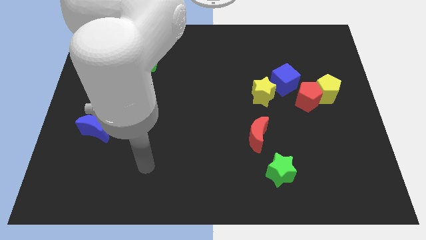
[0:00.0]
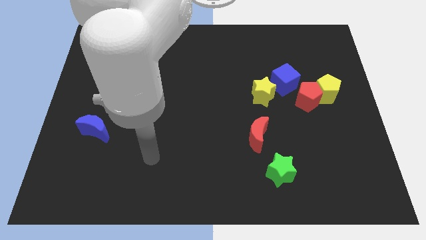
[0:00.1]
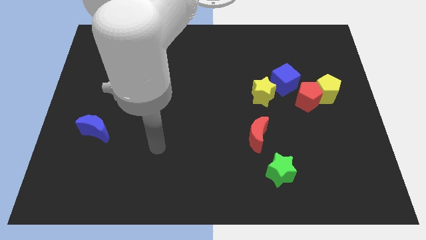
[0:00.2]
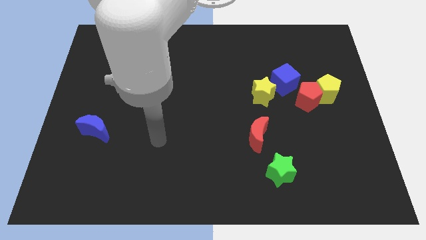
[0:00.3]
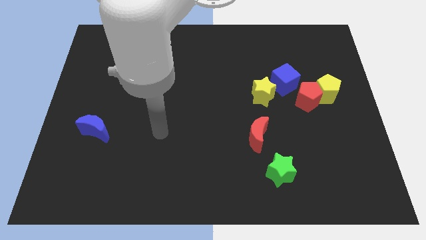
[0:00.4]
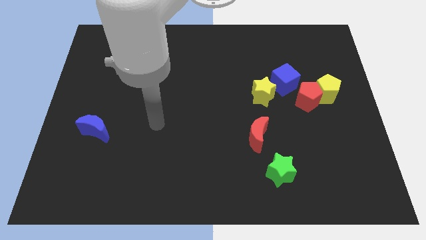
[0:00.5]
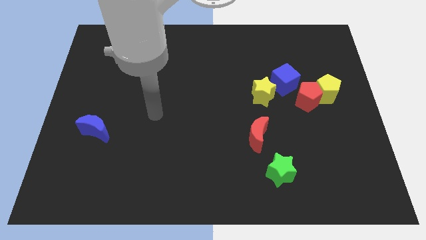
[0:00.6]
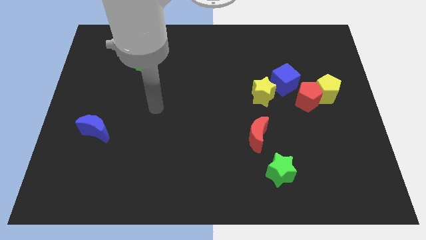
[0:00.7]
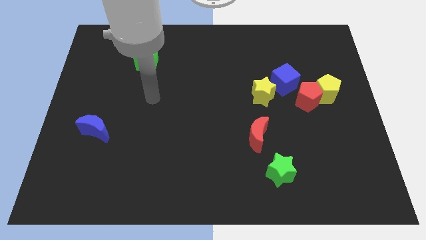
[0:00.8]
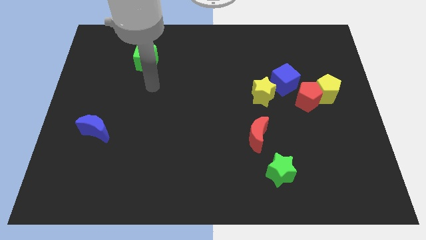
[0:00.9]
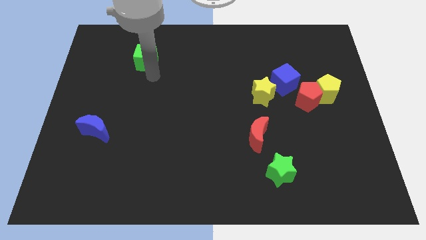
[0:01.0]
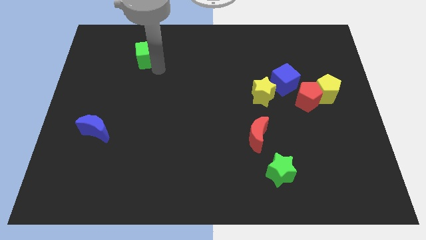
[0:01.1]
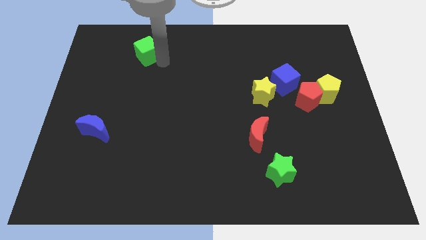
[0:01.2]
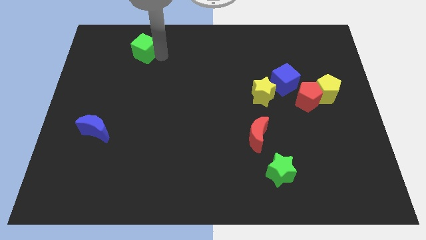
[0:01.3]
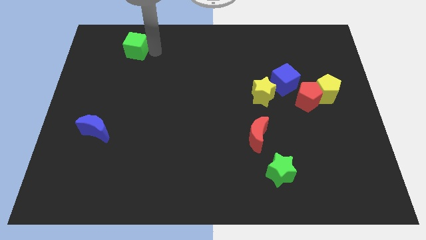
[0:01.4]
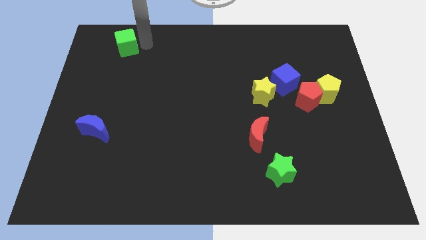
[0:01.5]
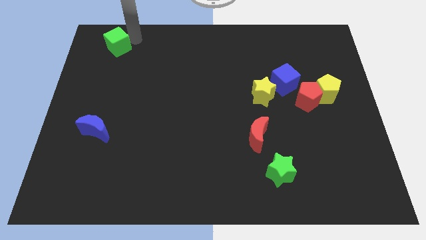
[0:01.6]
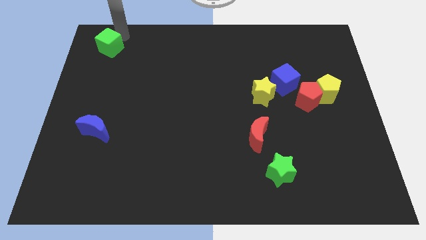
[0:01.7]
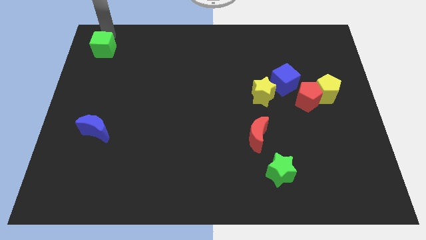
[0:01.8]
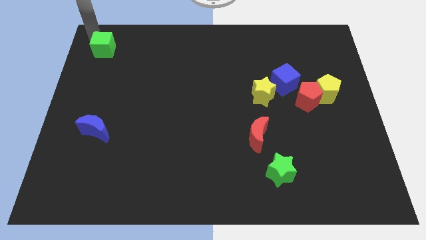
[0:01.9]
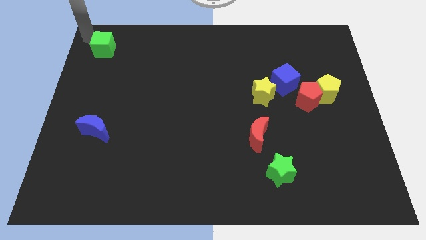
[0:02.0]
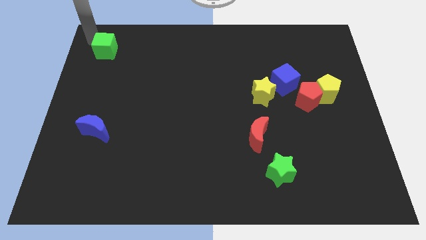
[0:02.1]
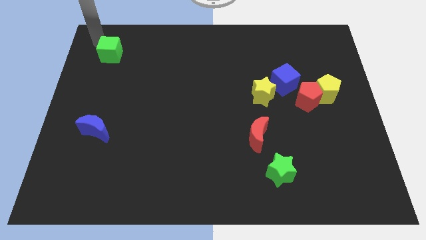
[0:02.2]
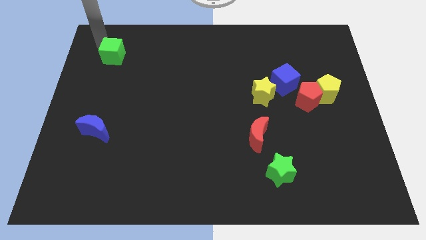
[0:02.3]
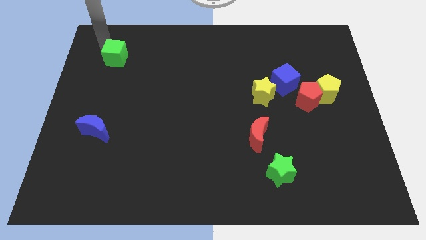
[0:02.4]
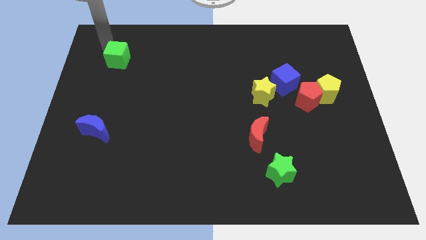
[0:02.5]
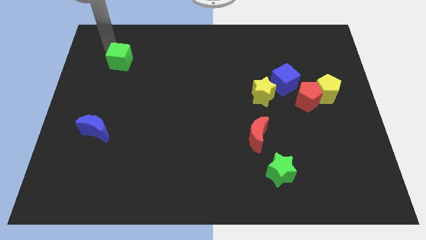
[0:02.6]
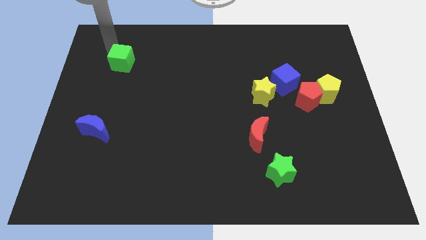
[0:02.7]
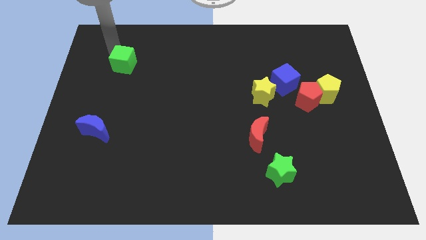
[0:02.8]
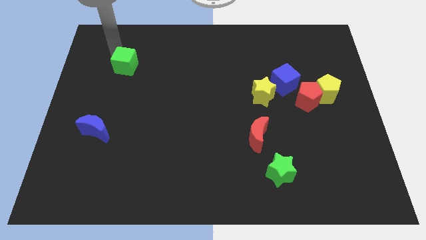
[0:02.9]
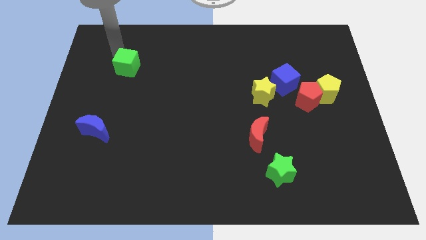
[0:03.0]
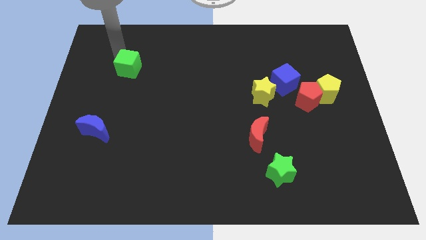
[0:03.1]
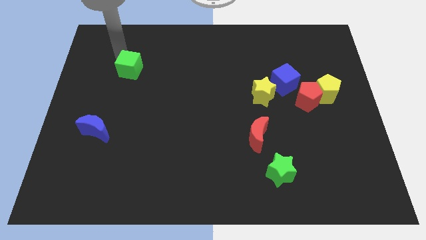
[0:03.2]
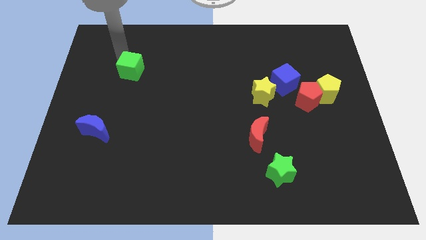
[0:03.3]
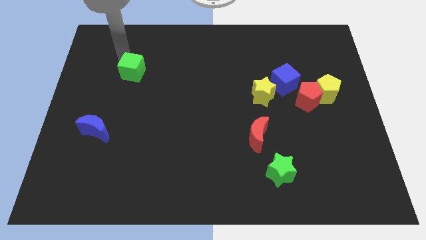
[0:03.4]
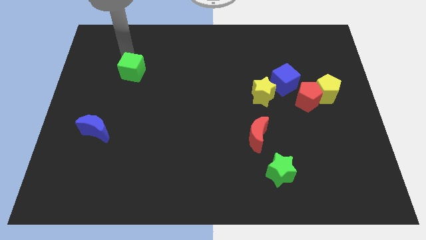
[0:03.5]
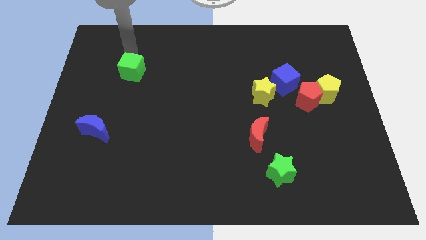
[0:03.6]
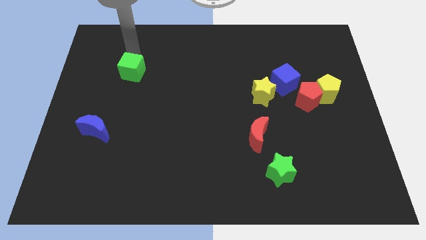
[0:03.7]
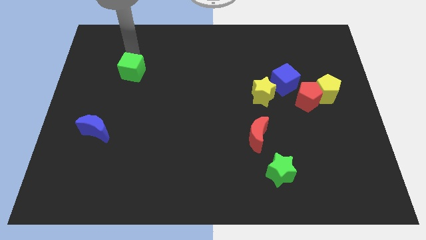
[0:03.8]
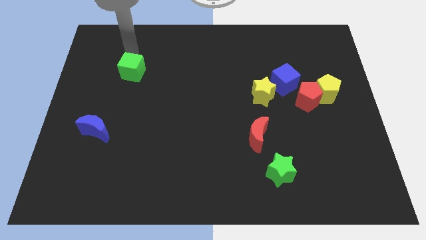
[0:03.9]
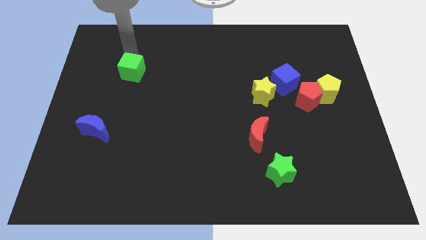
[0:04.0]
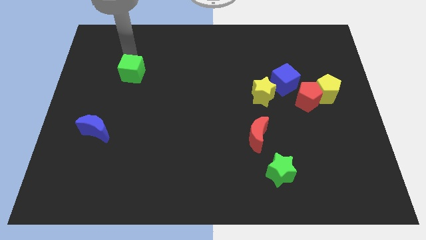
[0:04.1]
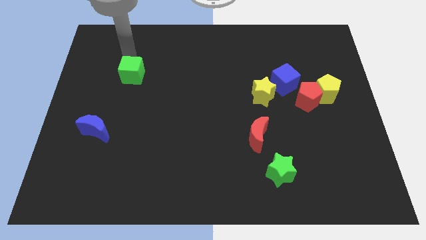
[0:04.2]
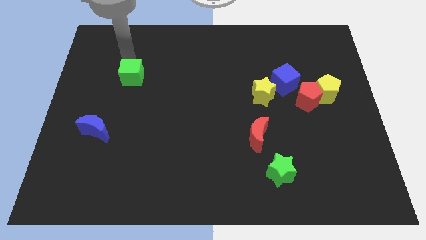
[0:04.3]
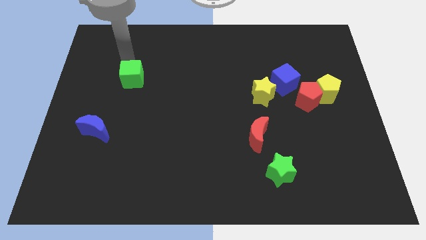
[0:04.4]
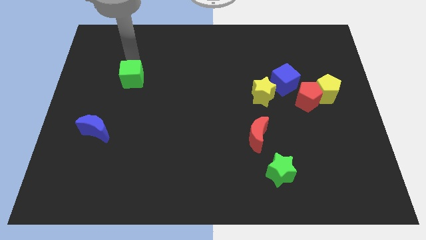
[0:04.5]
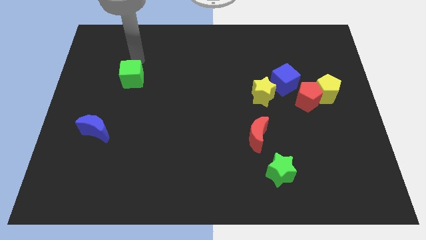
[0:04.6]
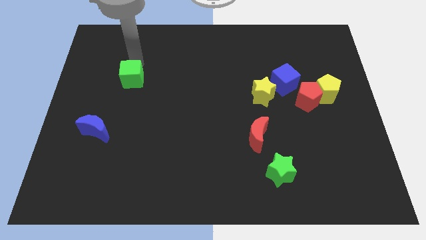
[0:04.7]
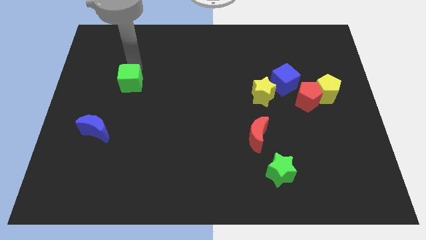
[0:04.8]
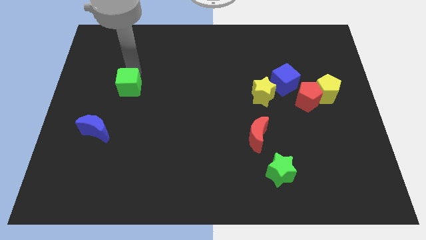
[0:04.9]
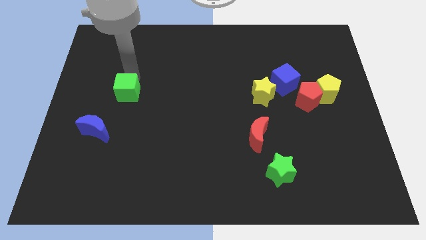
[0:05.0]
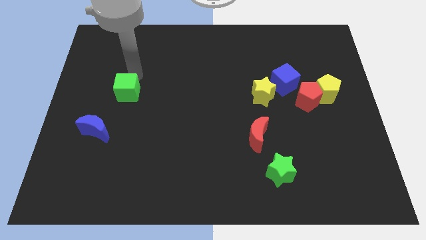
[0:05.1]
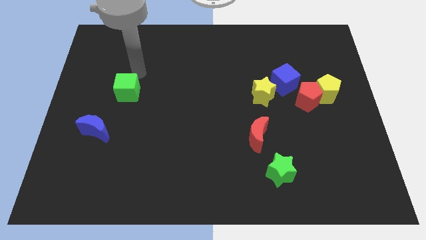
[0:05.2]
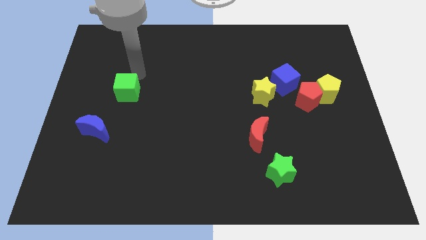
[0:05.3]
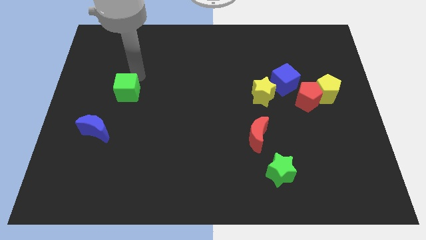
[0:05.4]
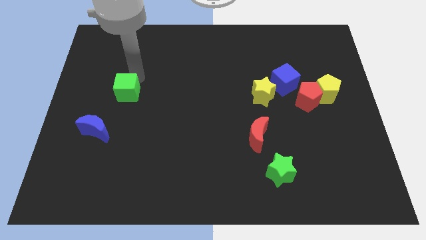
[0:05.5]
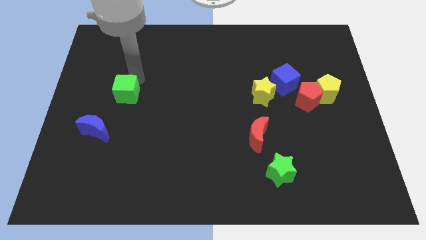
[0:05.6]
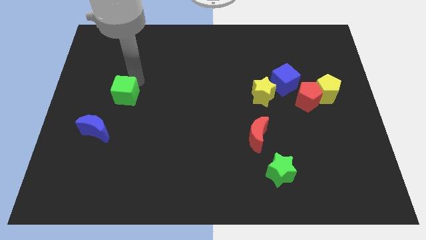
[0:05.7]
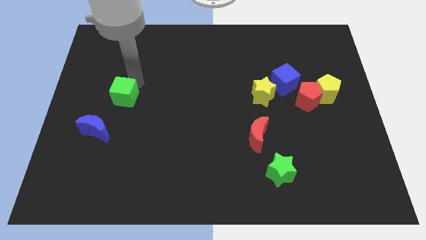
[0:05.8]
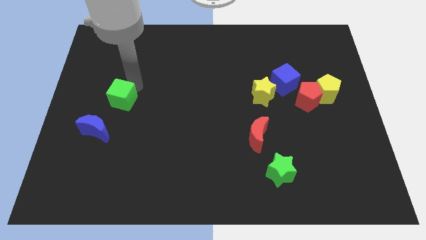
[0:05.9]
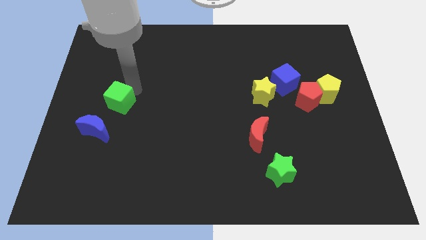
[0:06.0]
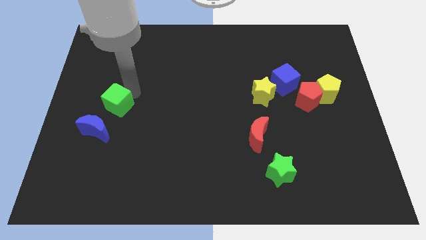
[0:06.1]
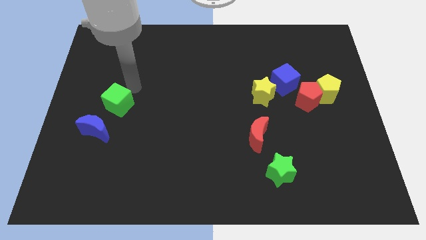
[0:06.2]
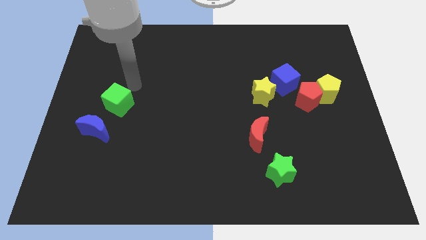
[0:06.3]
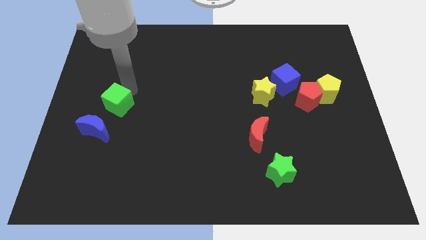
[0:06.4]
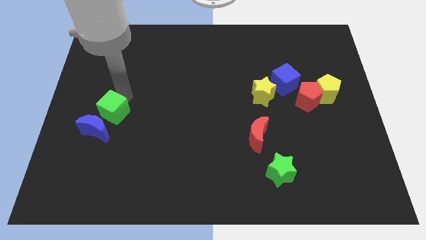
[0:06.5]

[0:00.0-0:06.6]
put the green cube close to the blue moon

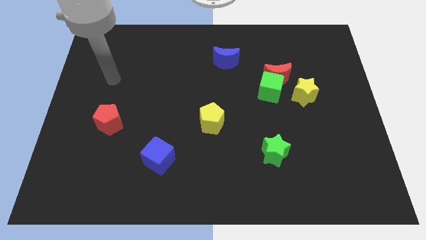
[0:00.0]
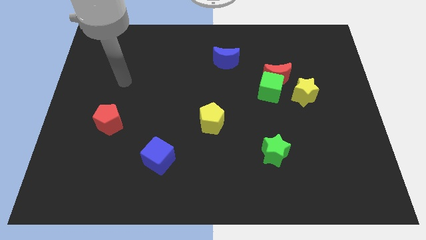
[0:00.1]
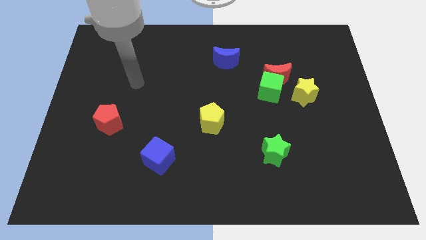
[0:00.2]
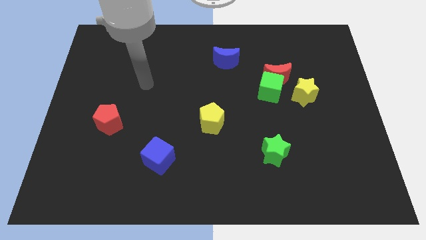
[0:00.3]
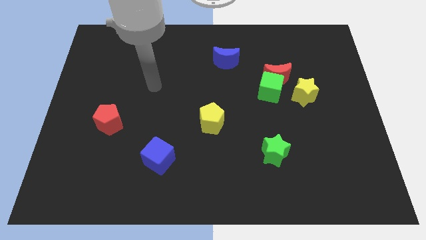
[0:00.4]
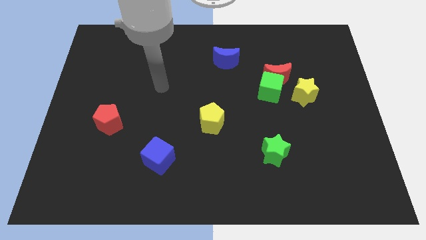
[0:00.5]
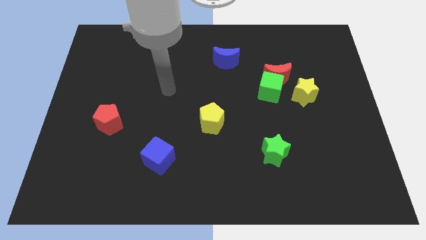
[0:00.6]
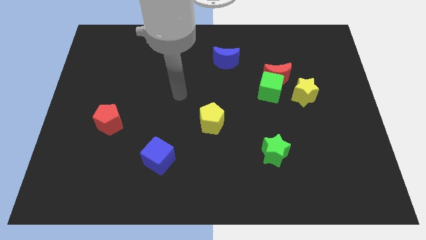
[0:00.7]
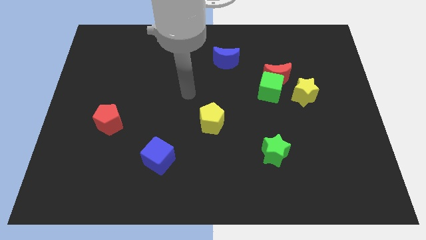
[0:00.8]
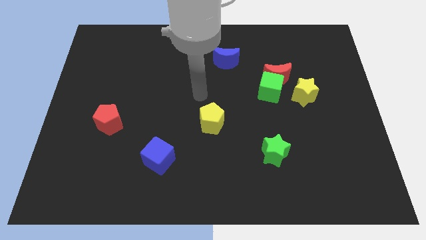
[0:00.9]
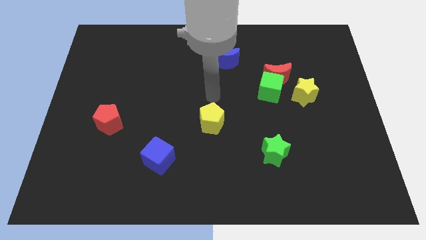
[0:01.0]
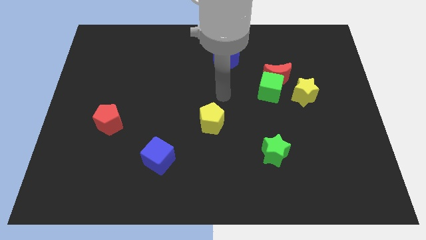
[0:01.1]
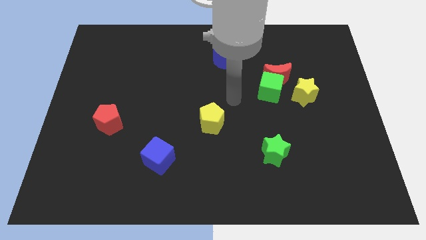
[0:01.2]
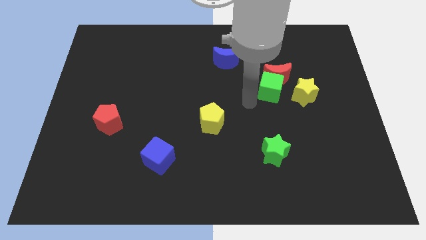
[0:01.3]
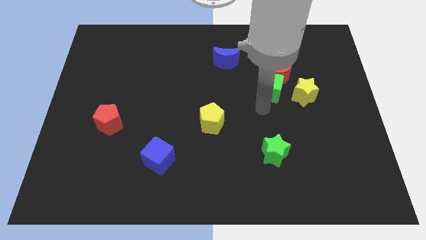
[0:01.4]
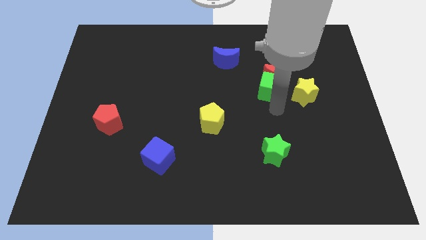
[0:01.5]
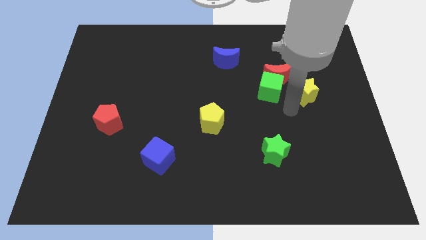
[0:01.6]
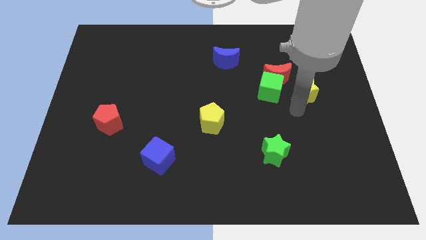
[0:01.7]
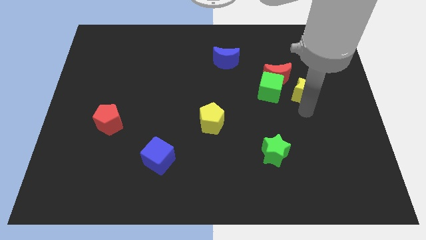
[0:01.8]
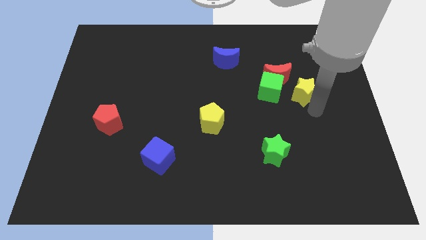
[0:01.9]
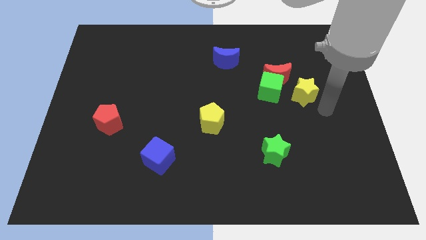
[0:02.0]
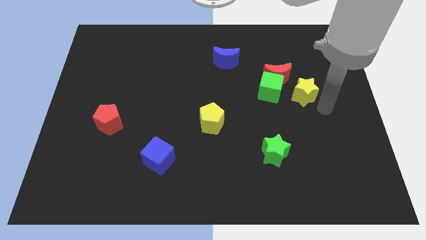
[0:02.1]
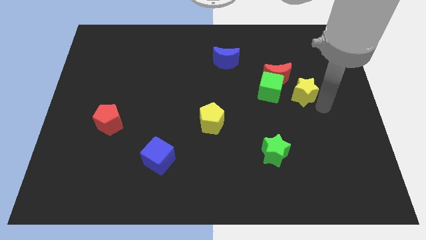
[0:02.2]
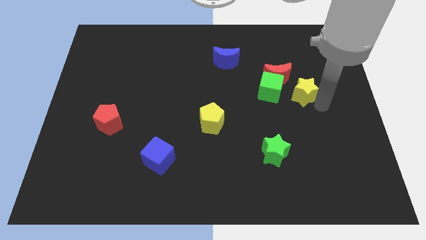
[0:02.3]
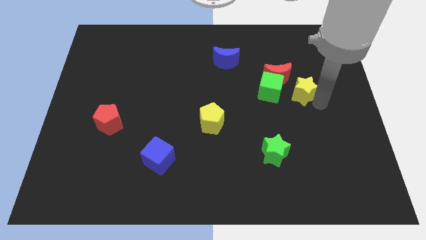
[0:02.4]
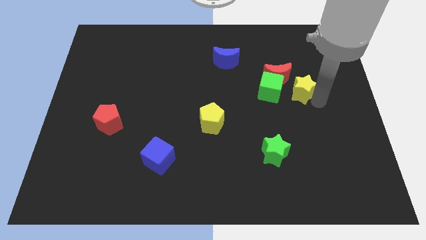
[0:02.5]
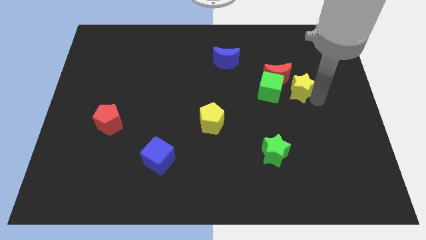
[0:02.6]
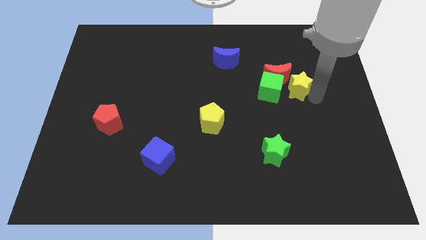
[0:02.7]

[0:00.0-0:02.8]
move the yellow star next to the red moon
